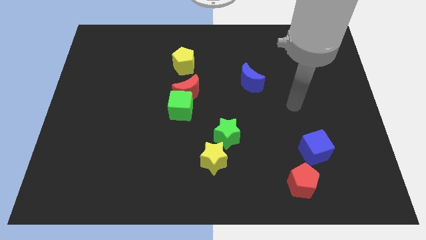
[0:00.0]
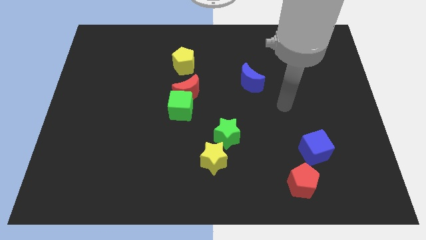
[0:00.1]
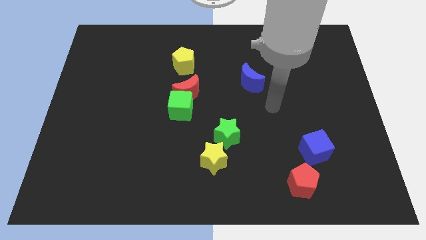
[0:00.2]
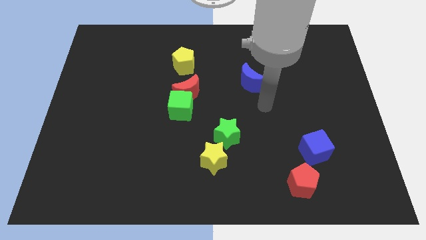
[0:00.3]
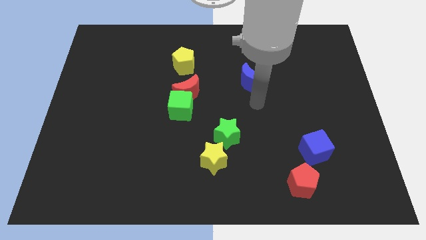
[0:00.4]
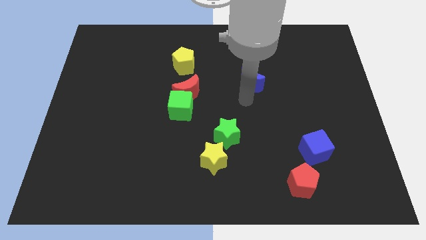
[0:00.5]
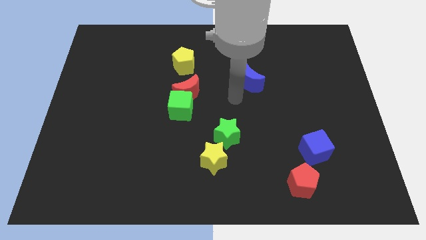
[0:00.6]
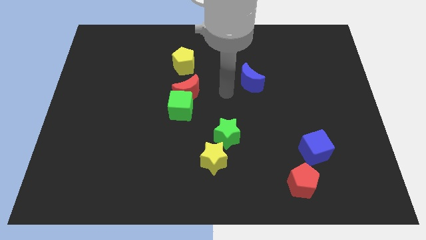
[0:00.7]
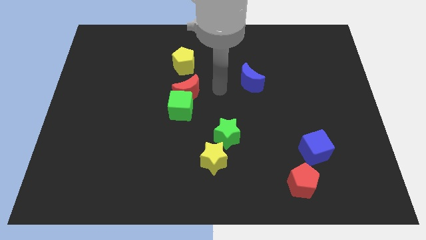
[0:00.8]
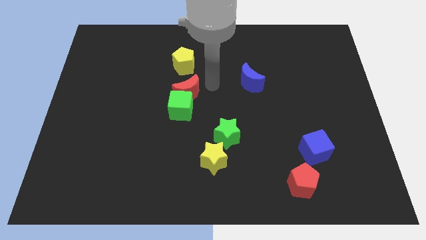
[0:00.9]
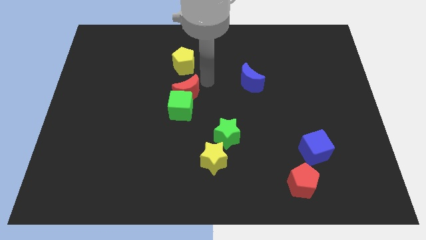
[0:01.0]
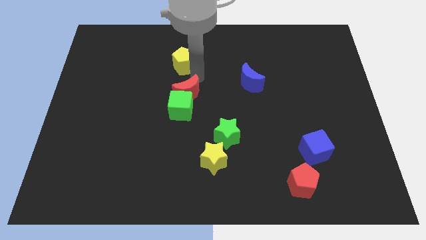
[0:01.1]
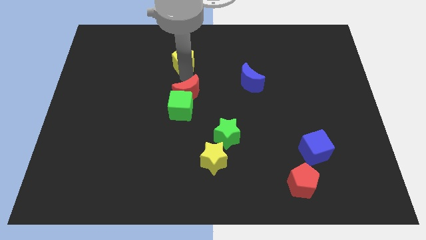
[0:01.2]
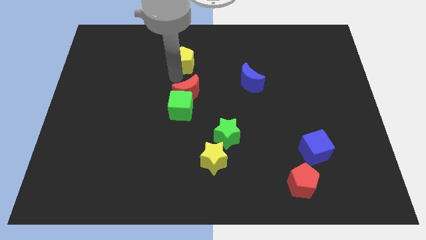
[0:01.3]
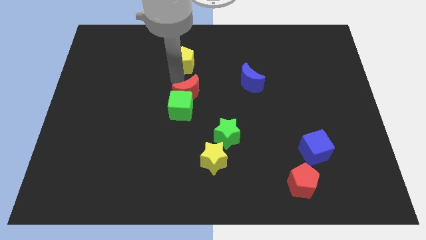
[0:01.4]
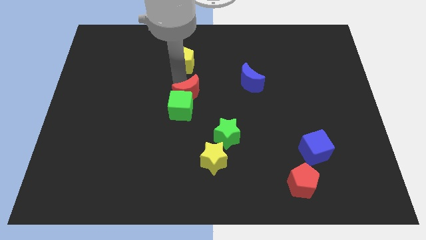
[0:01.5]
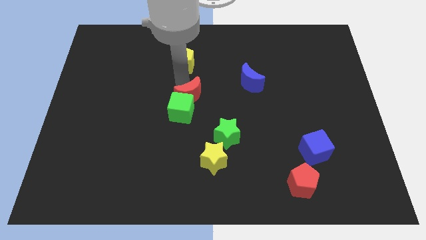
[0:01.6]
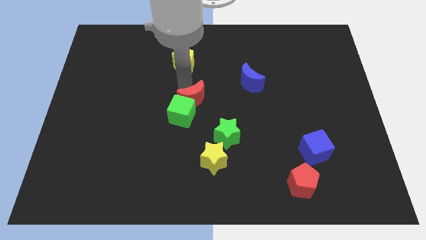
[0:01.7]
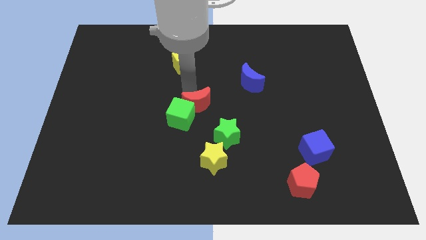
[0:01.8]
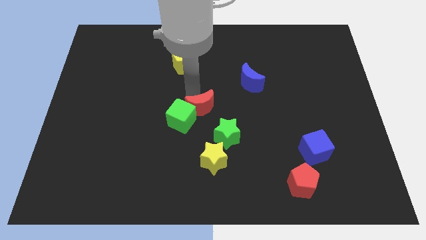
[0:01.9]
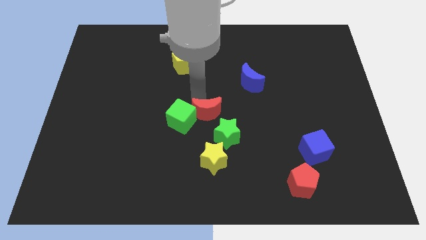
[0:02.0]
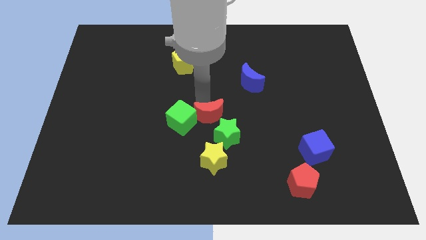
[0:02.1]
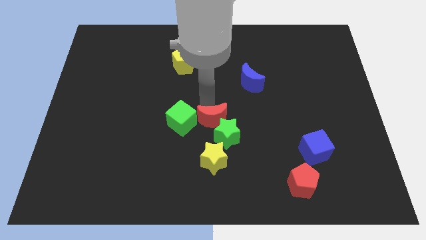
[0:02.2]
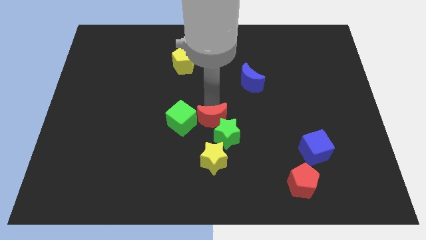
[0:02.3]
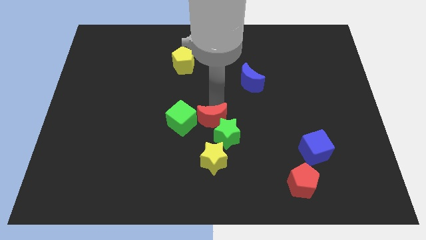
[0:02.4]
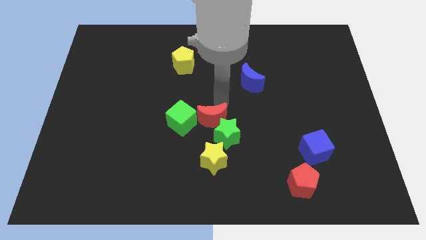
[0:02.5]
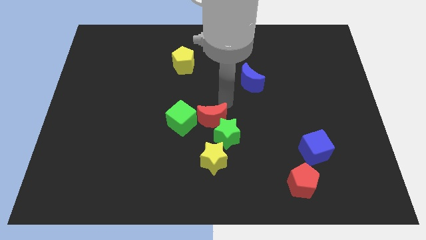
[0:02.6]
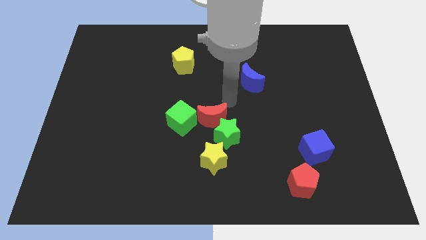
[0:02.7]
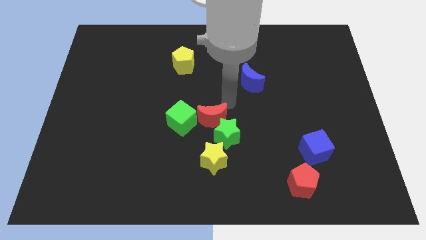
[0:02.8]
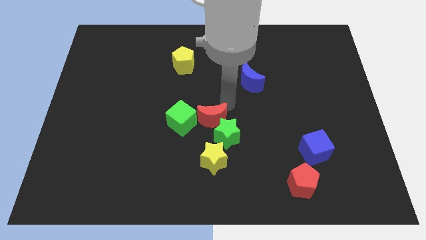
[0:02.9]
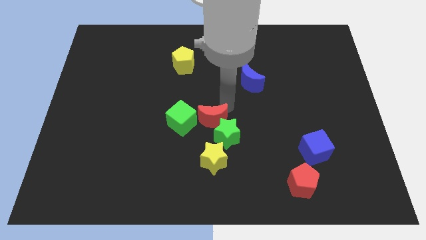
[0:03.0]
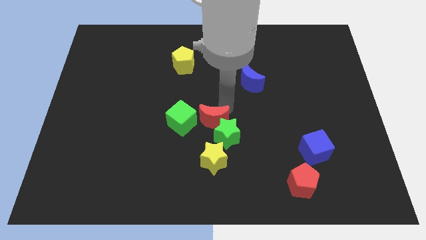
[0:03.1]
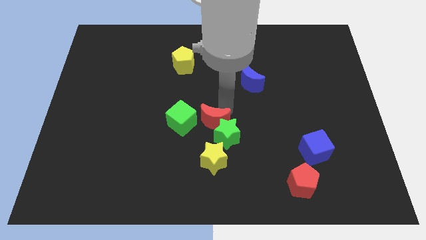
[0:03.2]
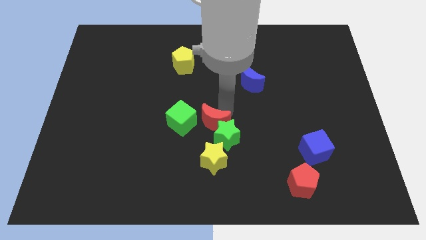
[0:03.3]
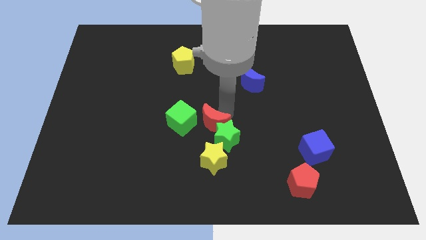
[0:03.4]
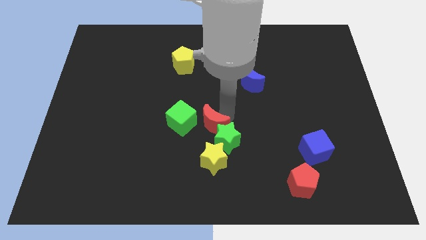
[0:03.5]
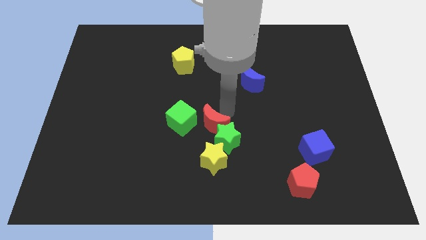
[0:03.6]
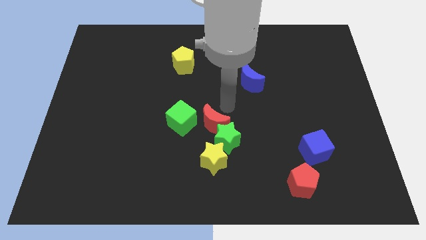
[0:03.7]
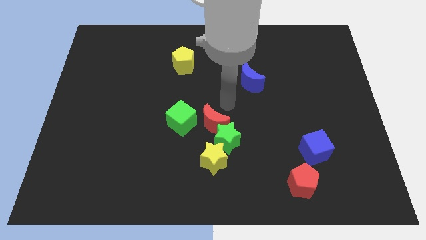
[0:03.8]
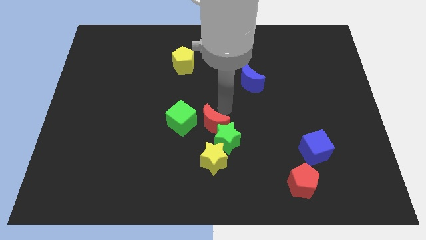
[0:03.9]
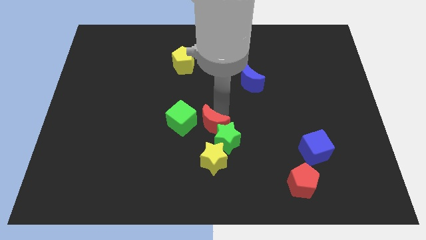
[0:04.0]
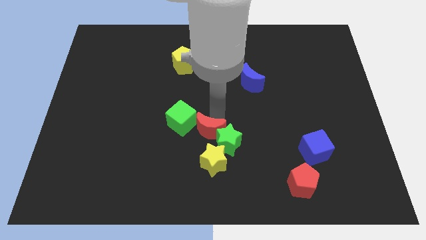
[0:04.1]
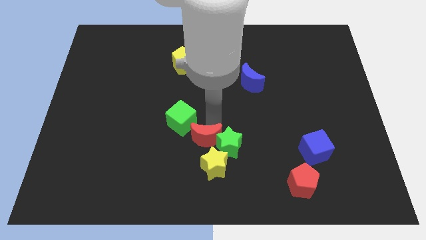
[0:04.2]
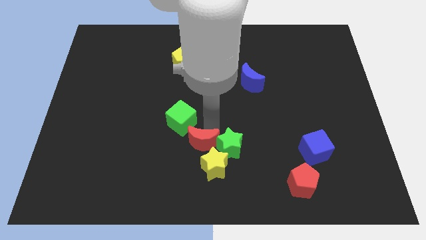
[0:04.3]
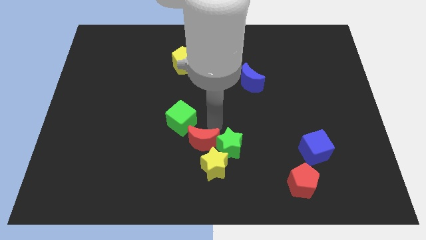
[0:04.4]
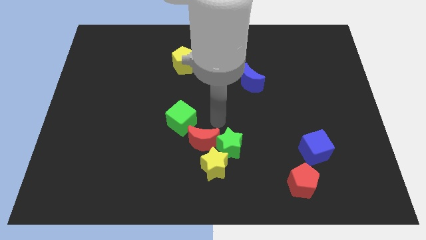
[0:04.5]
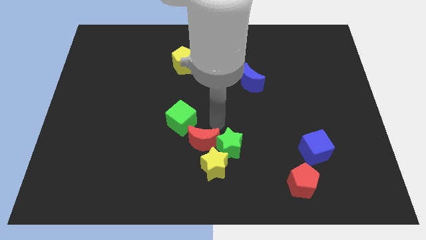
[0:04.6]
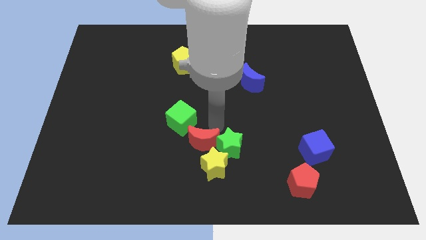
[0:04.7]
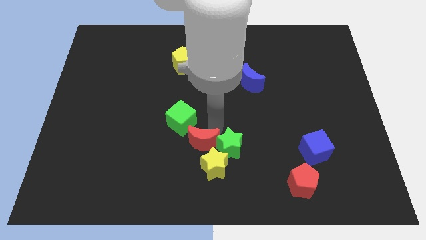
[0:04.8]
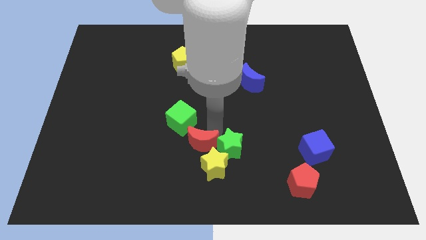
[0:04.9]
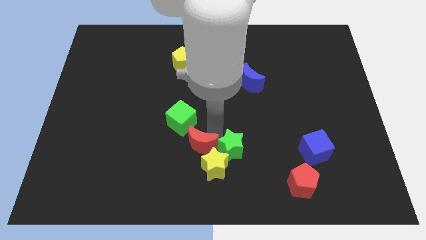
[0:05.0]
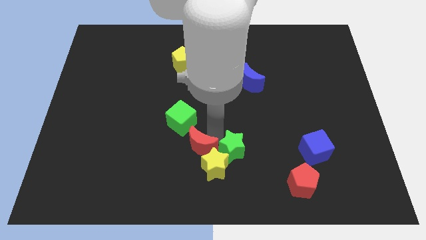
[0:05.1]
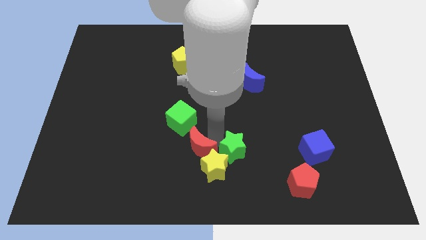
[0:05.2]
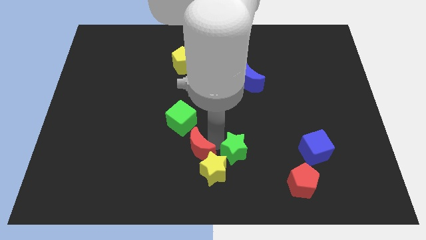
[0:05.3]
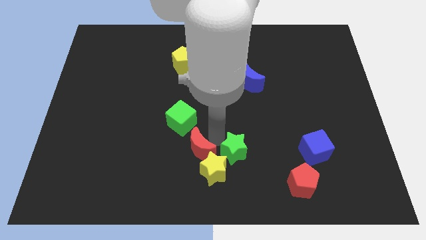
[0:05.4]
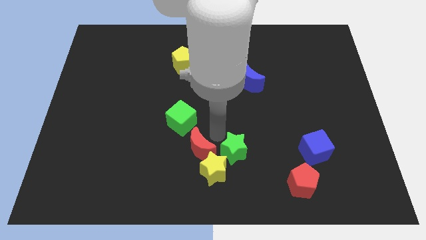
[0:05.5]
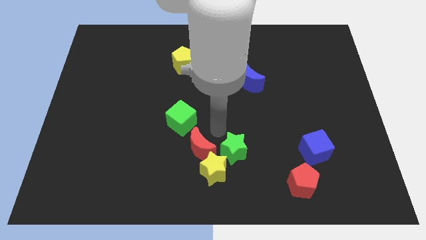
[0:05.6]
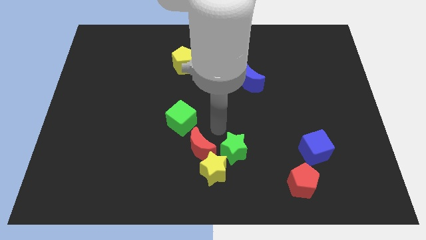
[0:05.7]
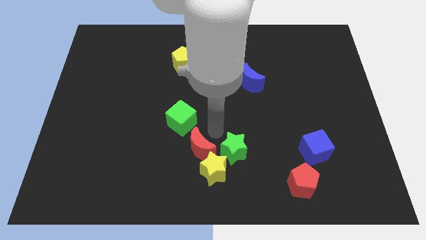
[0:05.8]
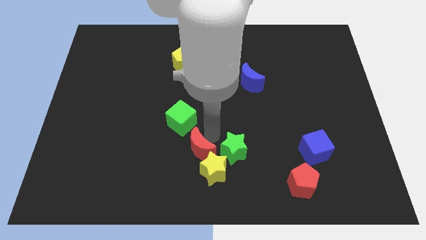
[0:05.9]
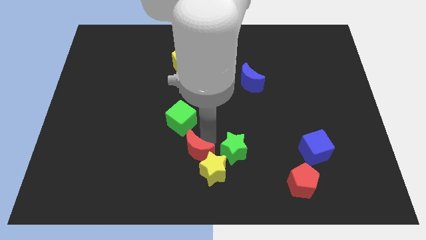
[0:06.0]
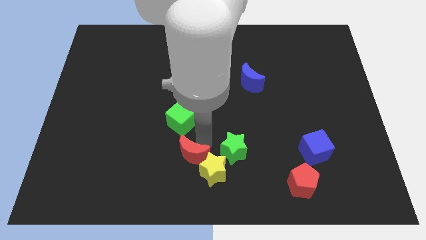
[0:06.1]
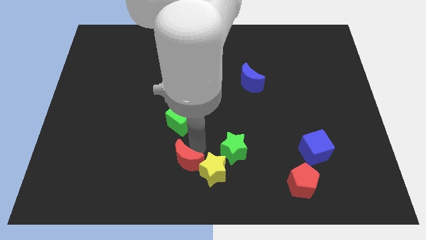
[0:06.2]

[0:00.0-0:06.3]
slide the red moon to the bottom

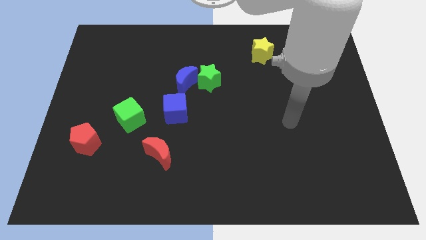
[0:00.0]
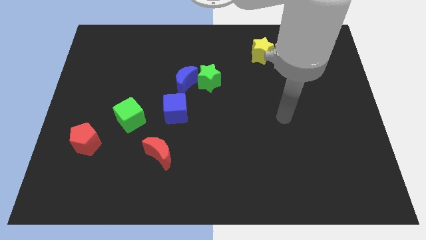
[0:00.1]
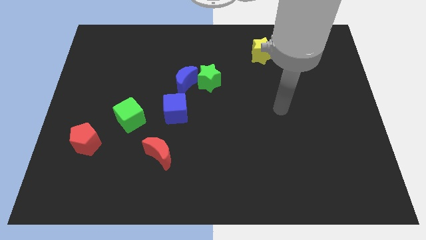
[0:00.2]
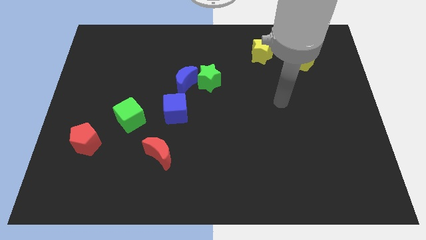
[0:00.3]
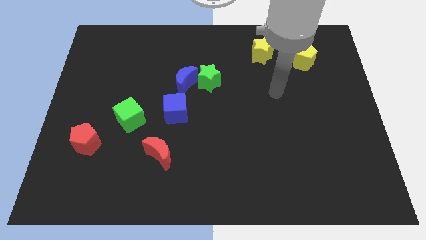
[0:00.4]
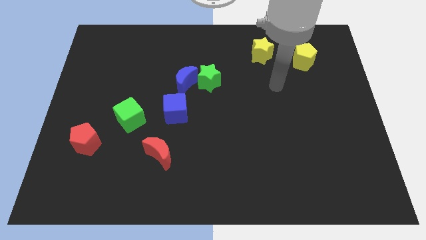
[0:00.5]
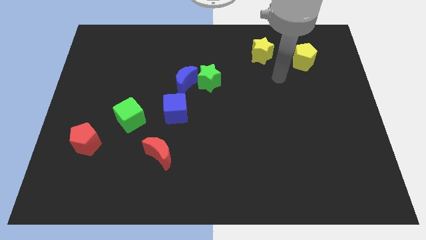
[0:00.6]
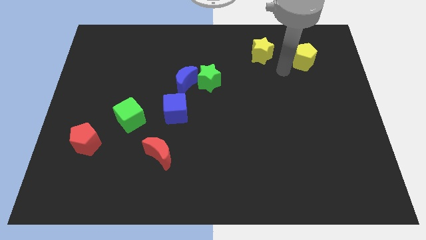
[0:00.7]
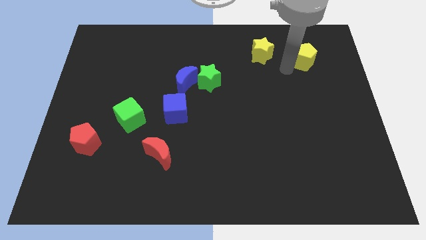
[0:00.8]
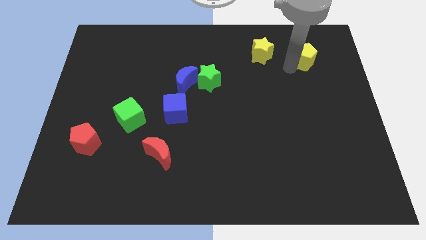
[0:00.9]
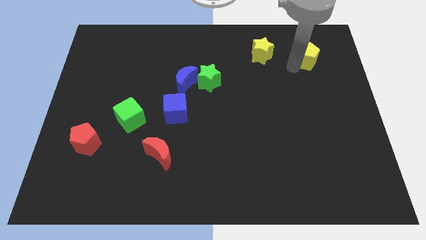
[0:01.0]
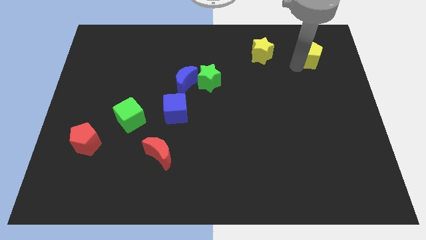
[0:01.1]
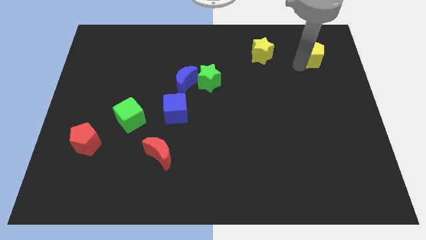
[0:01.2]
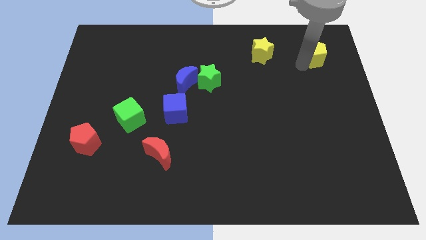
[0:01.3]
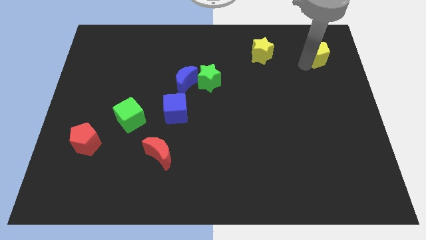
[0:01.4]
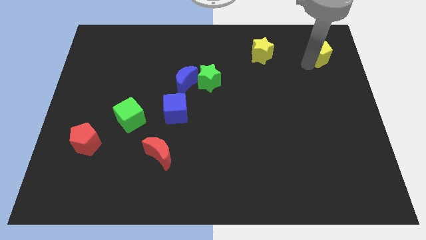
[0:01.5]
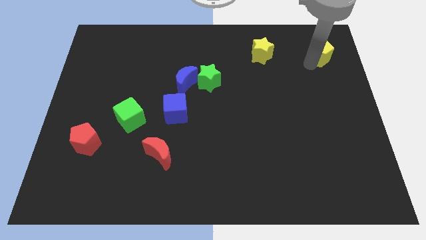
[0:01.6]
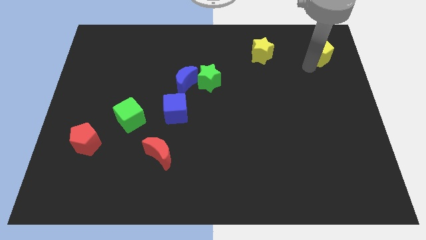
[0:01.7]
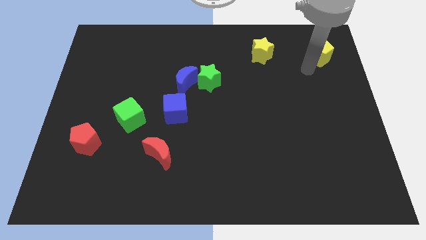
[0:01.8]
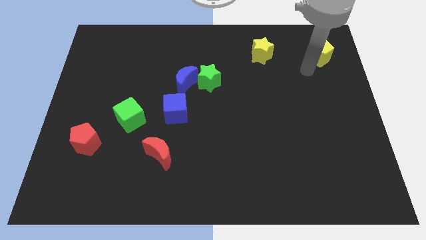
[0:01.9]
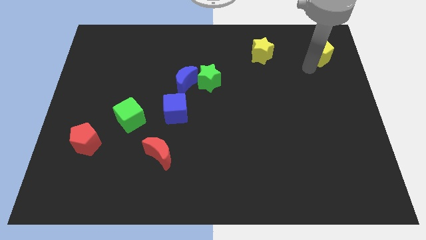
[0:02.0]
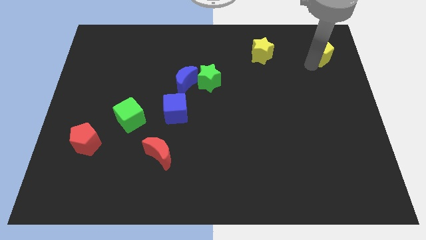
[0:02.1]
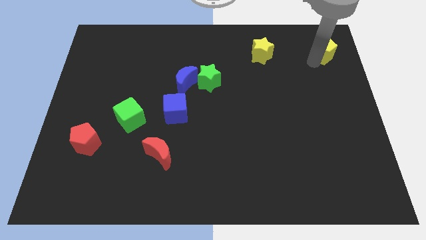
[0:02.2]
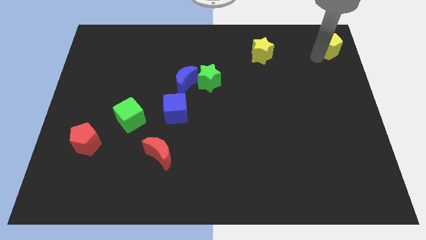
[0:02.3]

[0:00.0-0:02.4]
slide the yellow pentagon to the upper right corner
